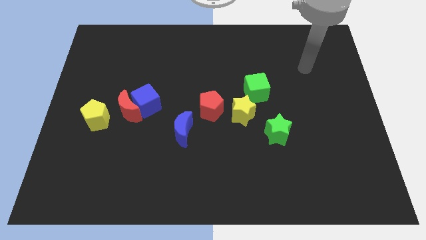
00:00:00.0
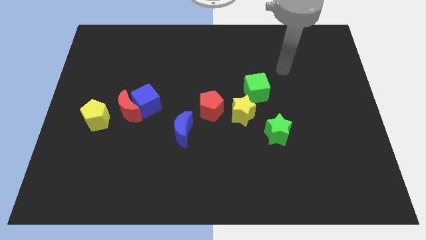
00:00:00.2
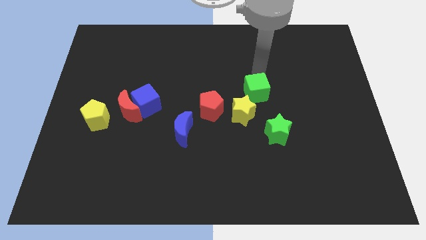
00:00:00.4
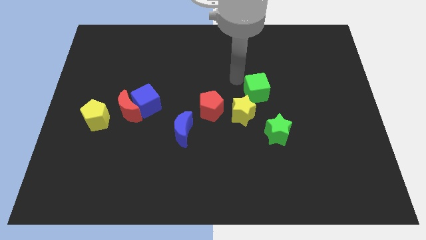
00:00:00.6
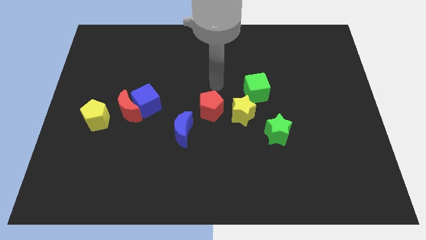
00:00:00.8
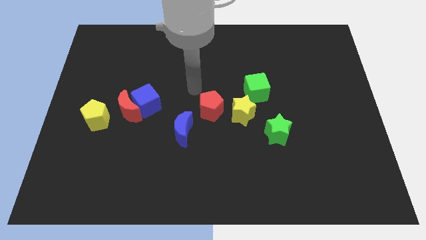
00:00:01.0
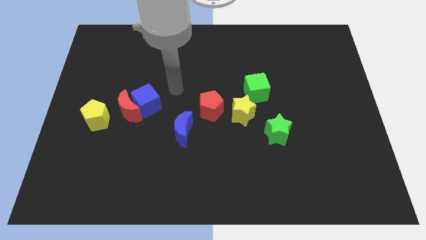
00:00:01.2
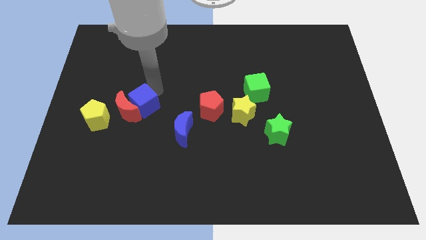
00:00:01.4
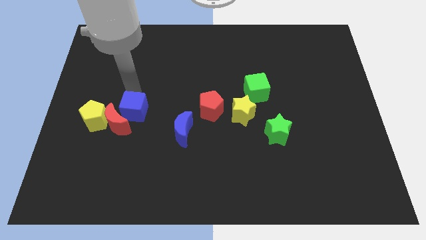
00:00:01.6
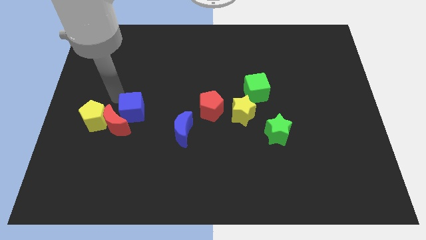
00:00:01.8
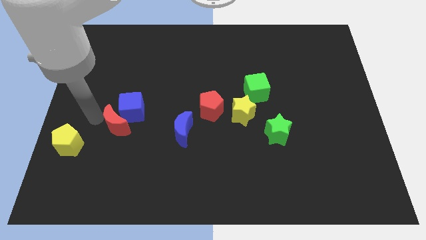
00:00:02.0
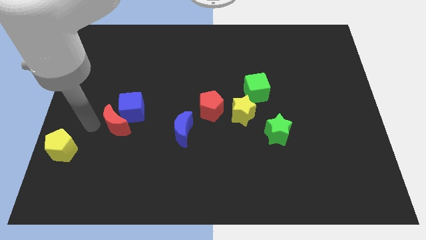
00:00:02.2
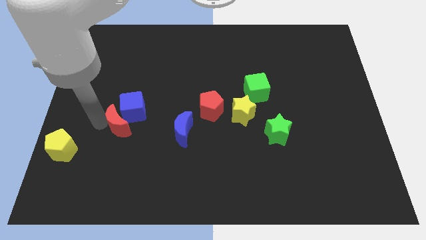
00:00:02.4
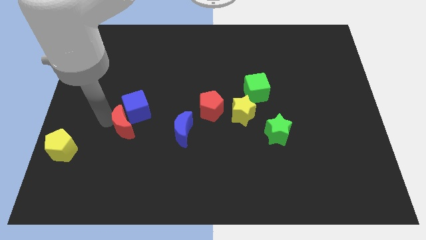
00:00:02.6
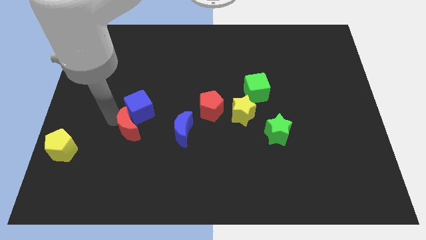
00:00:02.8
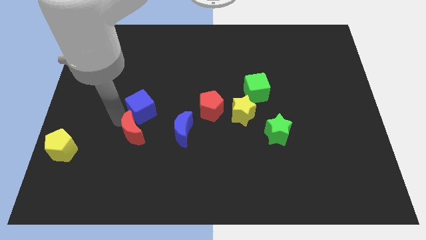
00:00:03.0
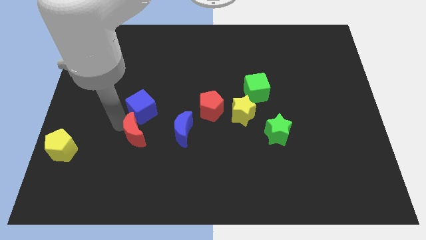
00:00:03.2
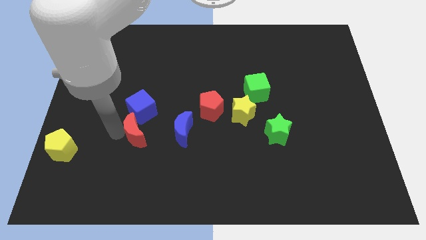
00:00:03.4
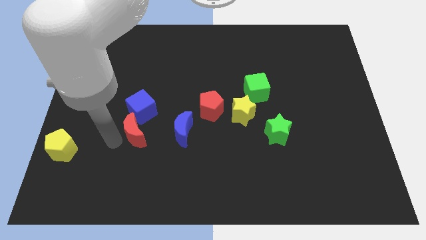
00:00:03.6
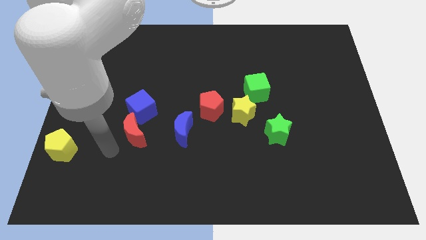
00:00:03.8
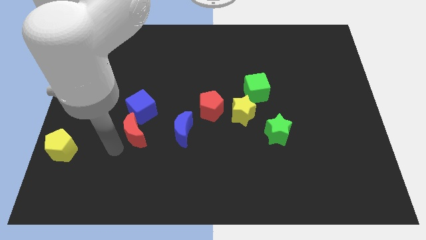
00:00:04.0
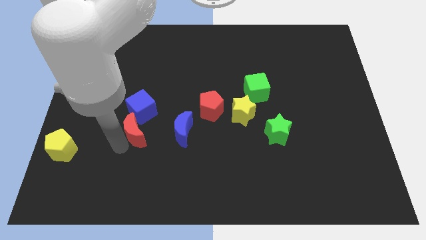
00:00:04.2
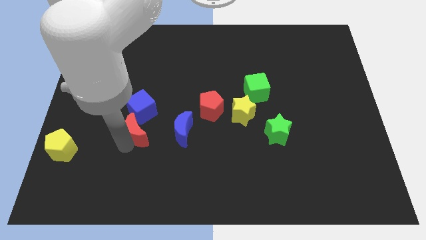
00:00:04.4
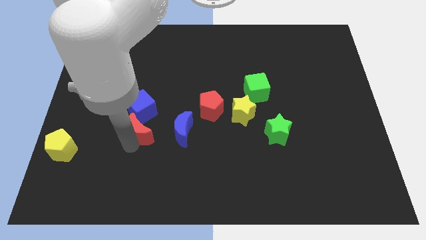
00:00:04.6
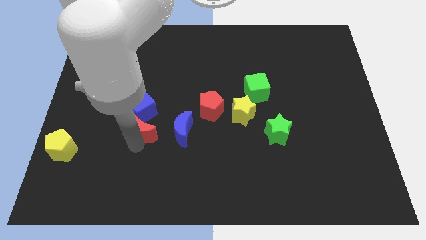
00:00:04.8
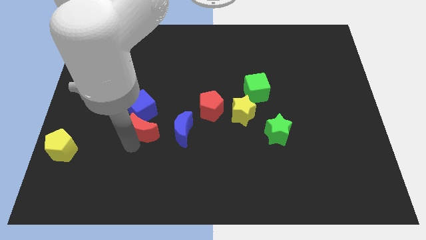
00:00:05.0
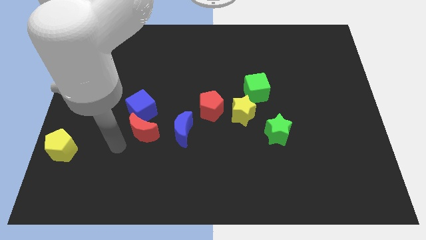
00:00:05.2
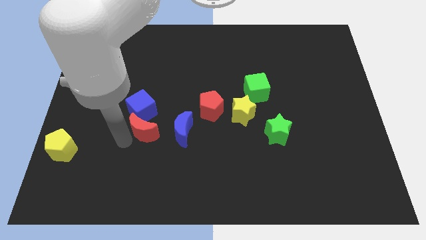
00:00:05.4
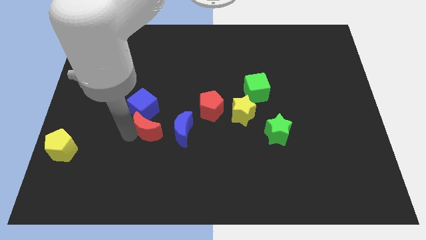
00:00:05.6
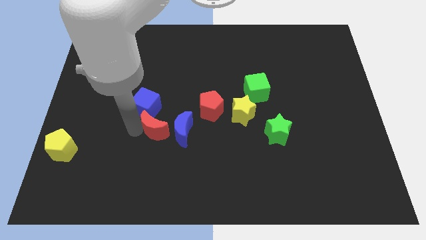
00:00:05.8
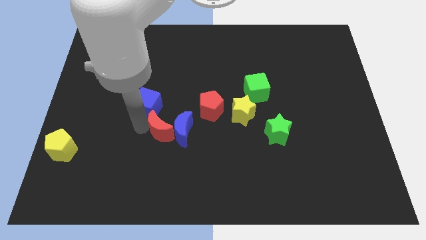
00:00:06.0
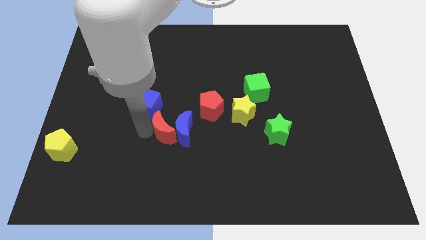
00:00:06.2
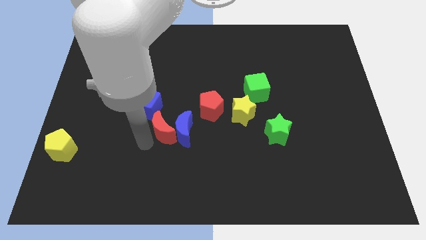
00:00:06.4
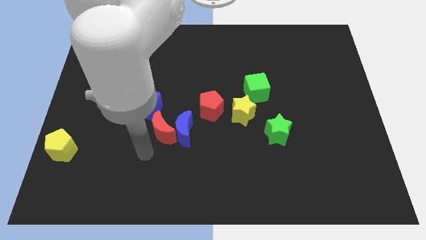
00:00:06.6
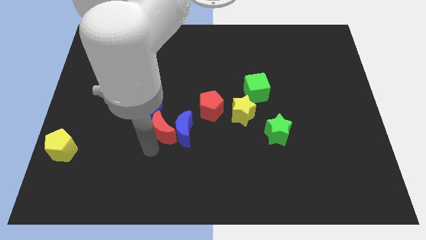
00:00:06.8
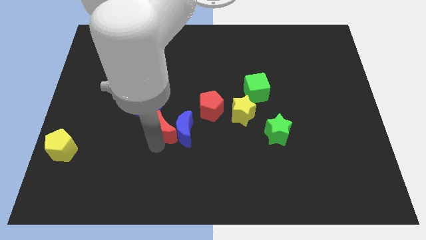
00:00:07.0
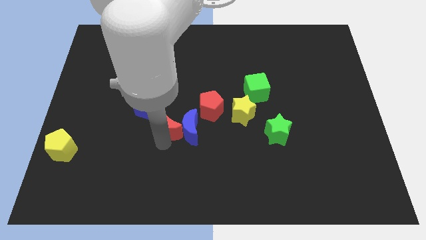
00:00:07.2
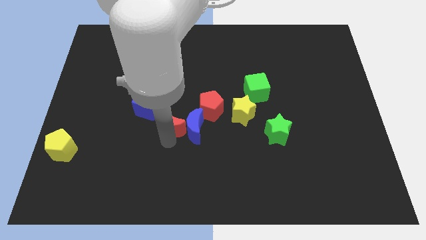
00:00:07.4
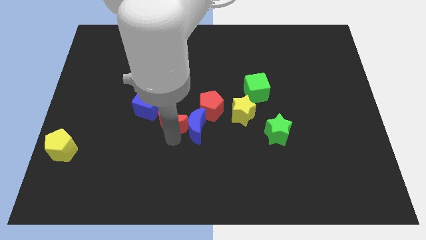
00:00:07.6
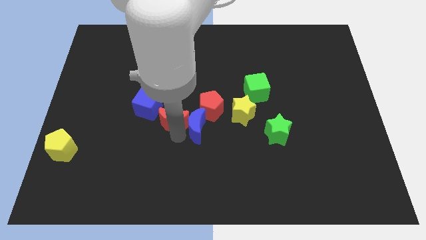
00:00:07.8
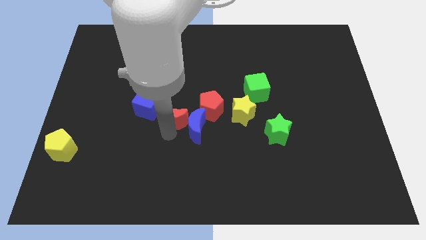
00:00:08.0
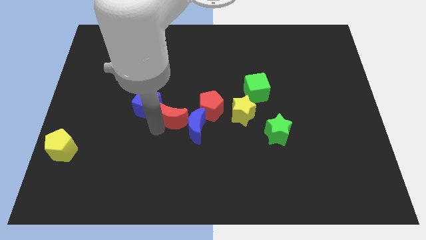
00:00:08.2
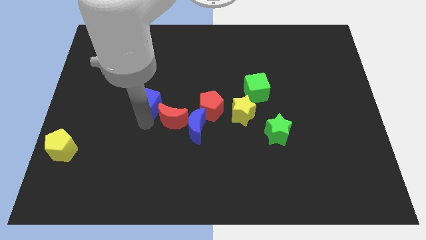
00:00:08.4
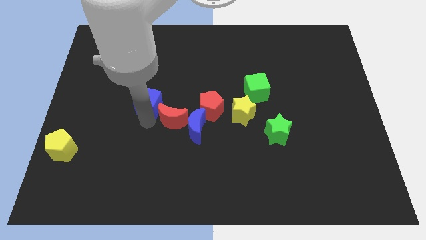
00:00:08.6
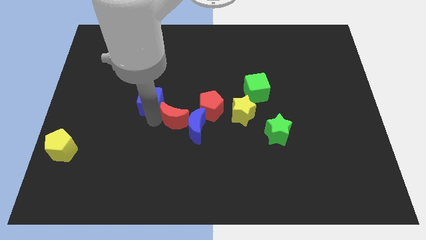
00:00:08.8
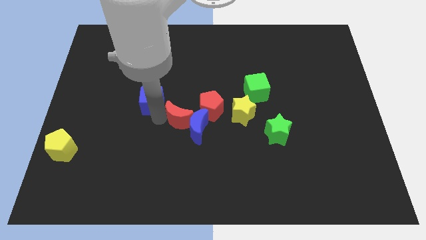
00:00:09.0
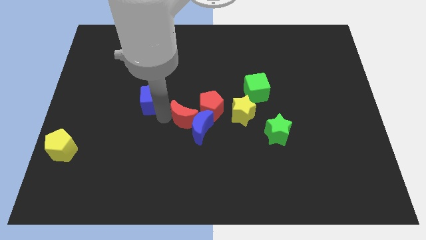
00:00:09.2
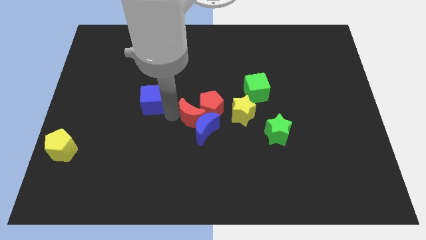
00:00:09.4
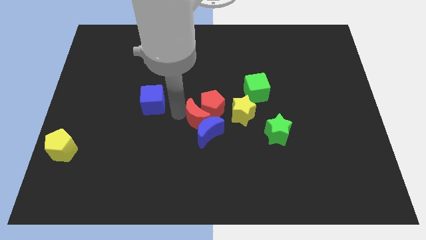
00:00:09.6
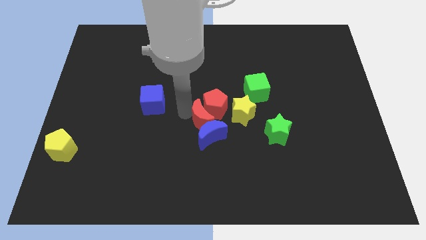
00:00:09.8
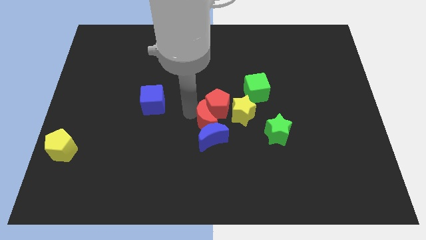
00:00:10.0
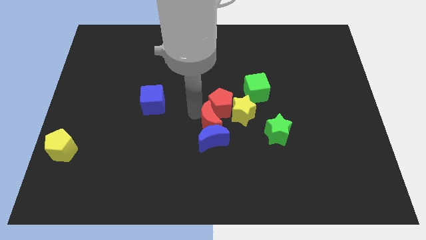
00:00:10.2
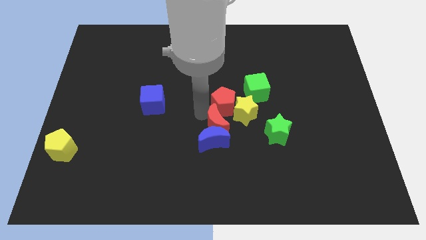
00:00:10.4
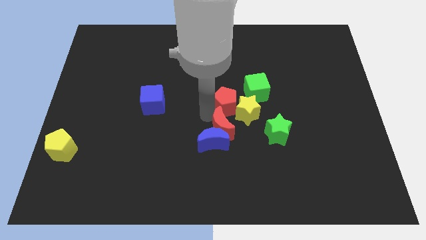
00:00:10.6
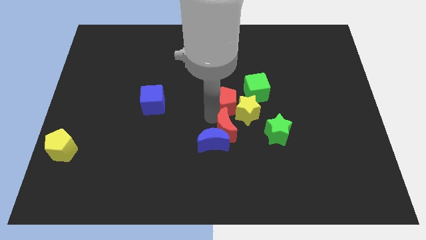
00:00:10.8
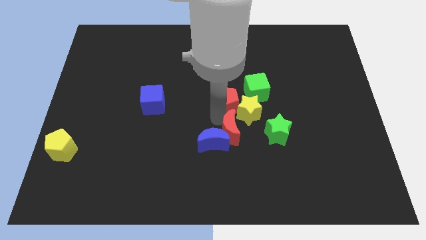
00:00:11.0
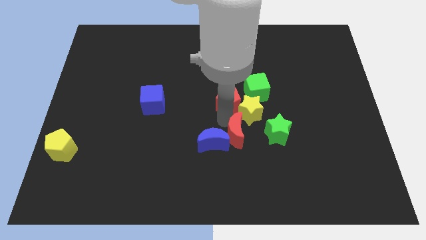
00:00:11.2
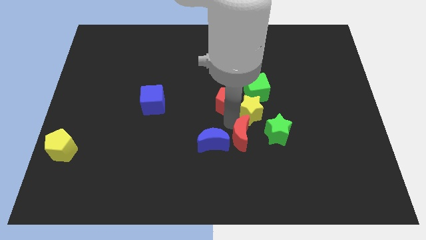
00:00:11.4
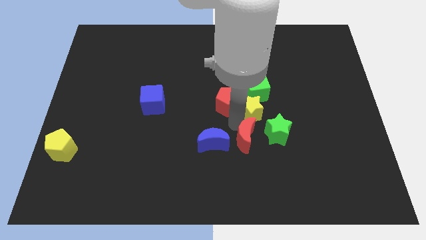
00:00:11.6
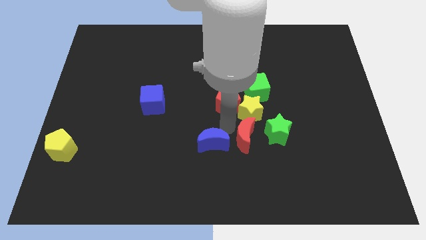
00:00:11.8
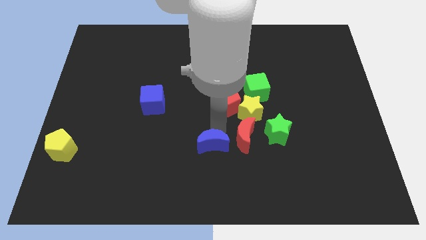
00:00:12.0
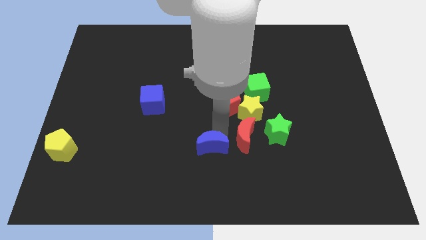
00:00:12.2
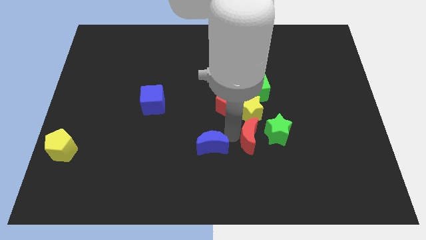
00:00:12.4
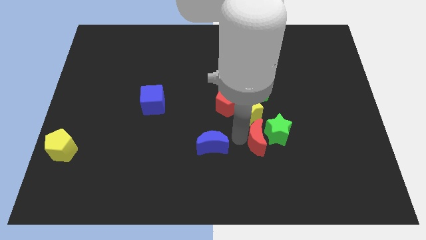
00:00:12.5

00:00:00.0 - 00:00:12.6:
push the red moon next to the green star
